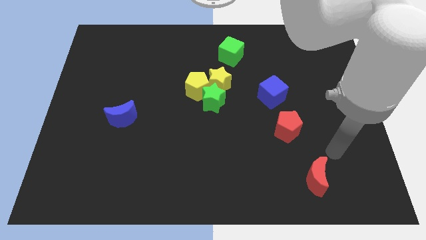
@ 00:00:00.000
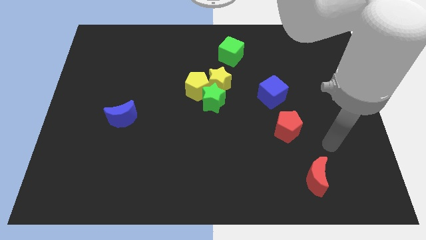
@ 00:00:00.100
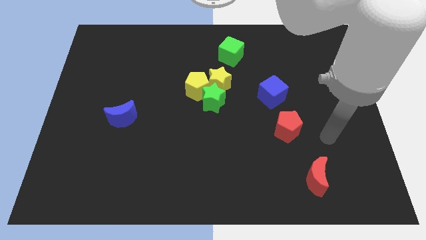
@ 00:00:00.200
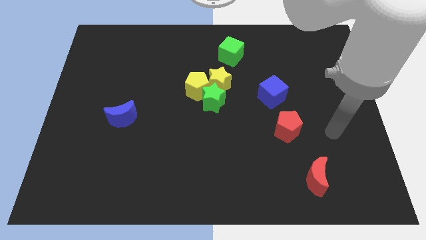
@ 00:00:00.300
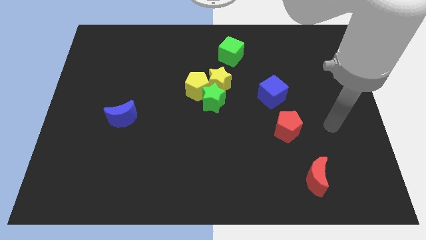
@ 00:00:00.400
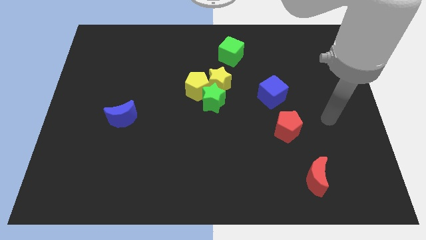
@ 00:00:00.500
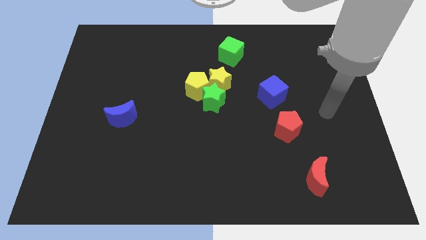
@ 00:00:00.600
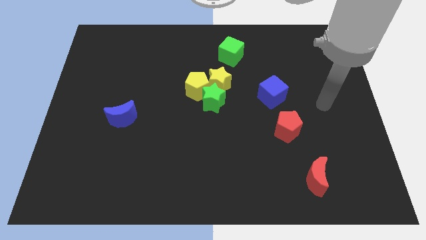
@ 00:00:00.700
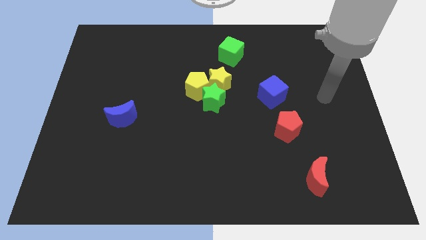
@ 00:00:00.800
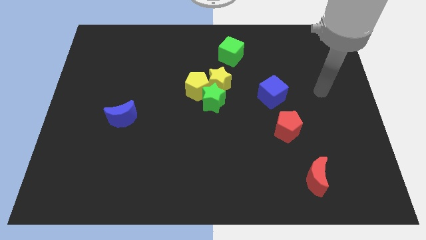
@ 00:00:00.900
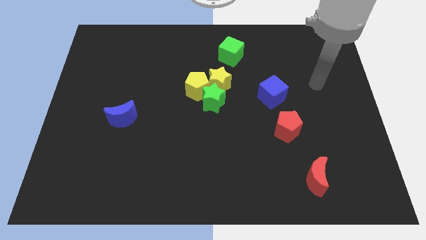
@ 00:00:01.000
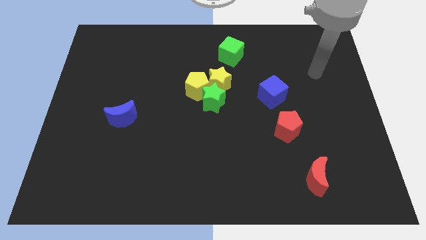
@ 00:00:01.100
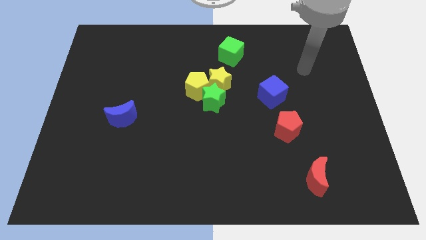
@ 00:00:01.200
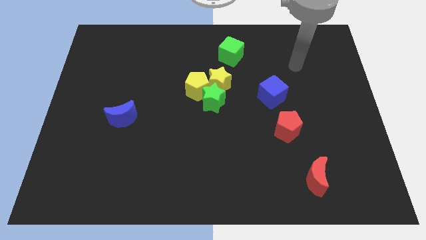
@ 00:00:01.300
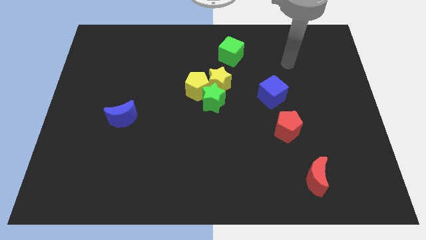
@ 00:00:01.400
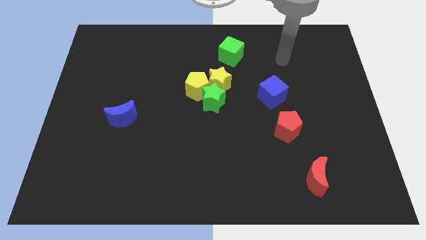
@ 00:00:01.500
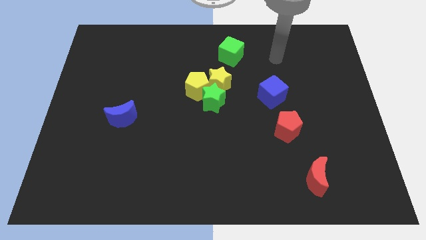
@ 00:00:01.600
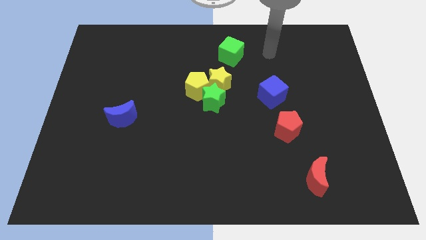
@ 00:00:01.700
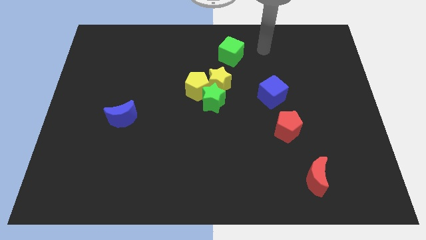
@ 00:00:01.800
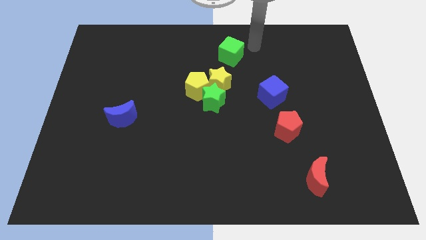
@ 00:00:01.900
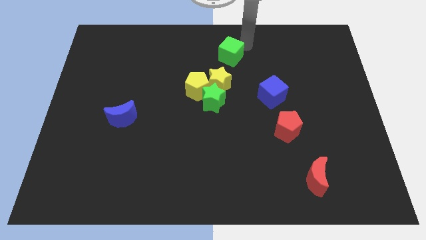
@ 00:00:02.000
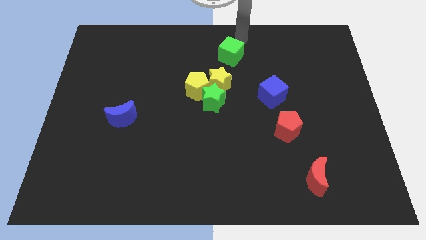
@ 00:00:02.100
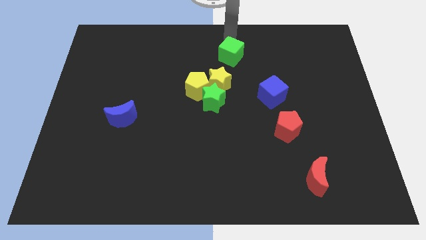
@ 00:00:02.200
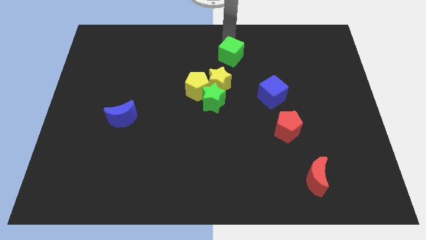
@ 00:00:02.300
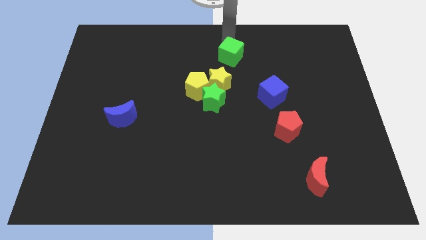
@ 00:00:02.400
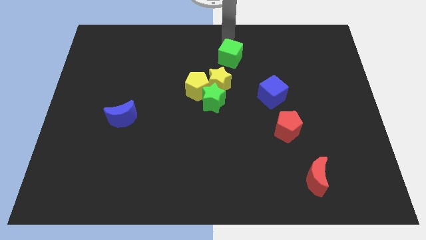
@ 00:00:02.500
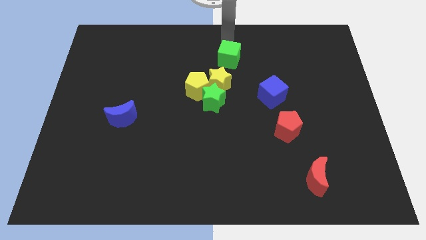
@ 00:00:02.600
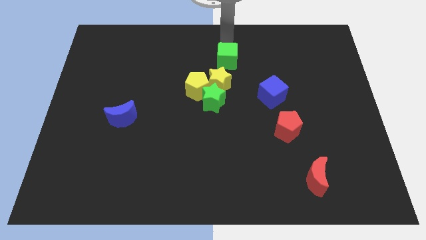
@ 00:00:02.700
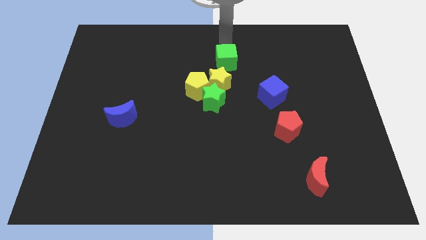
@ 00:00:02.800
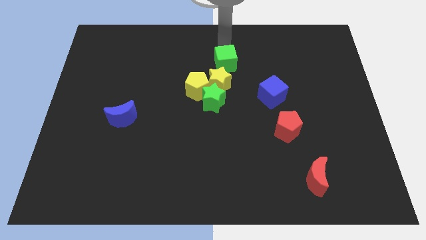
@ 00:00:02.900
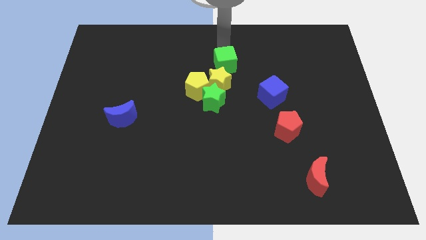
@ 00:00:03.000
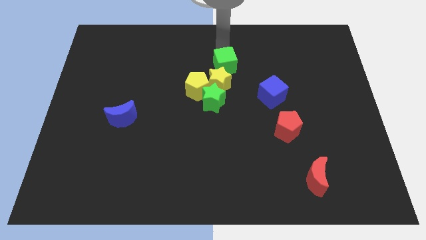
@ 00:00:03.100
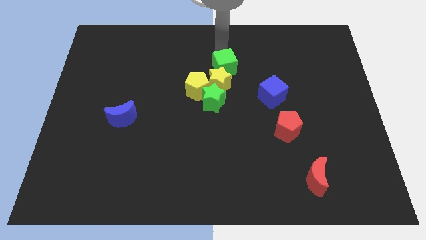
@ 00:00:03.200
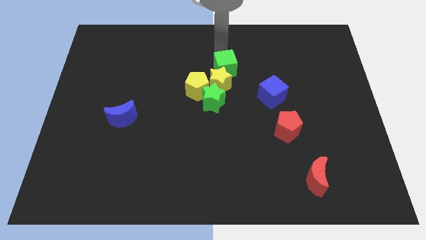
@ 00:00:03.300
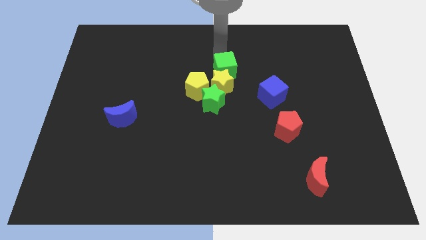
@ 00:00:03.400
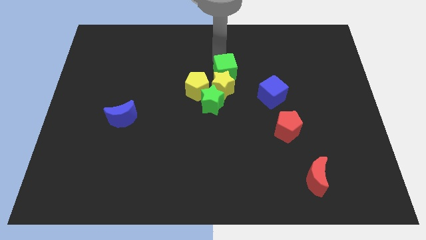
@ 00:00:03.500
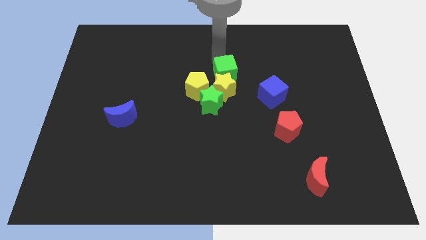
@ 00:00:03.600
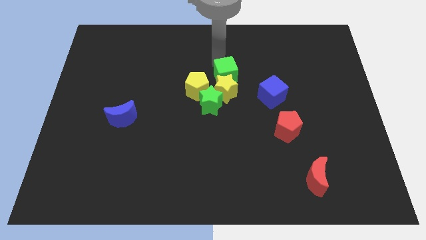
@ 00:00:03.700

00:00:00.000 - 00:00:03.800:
slightly move the green cube downwards

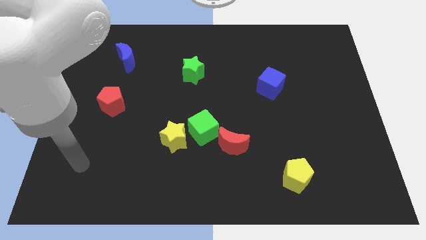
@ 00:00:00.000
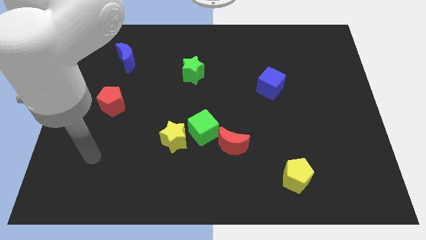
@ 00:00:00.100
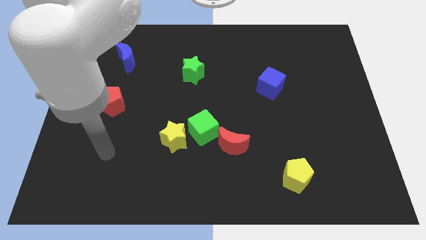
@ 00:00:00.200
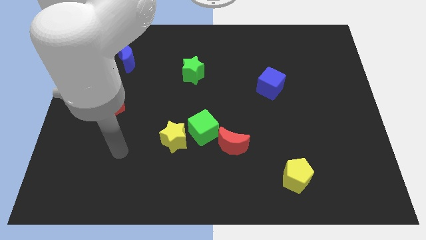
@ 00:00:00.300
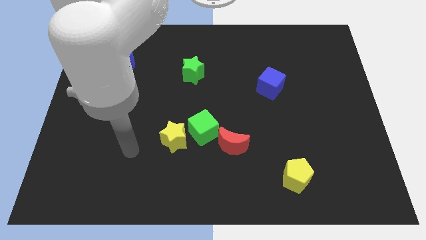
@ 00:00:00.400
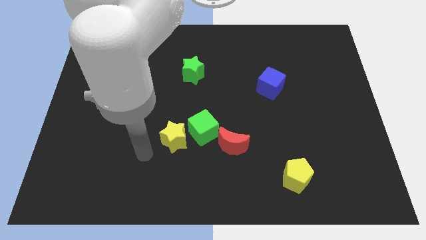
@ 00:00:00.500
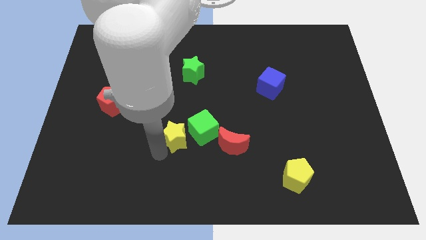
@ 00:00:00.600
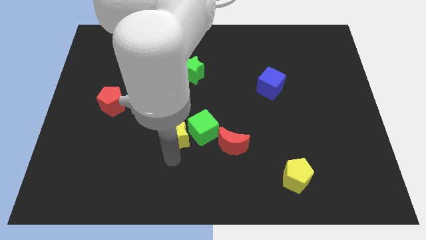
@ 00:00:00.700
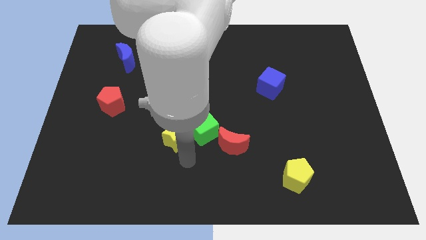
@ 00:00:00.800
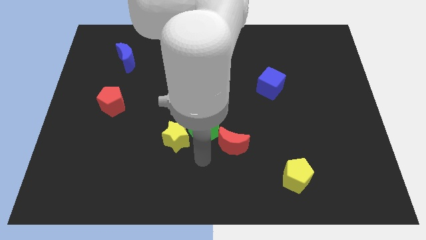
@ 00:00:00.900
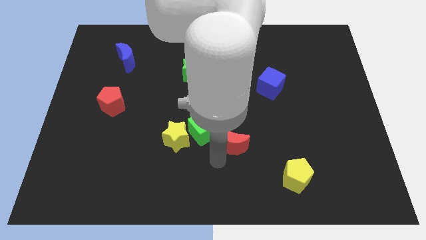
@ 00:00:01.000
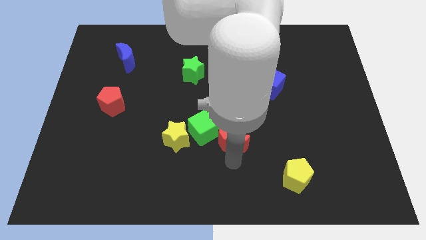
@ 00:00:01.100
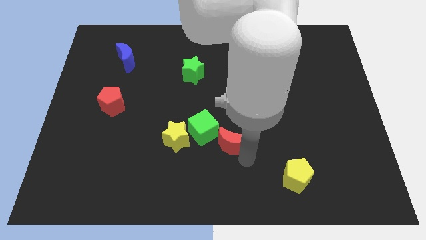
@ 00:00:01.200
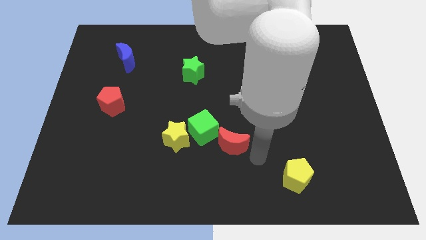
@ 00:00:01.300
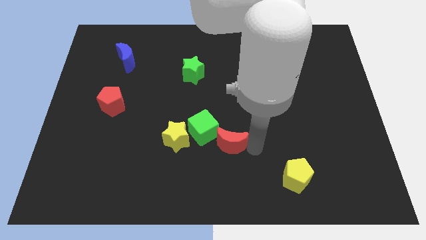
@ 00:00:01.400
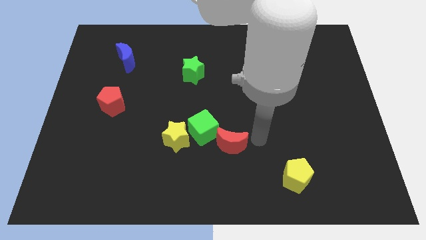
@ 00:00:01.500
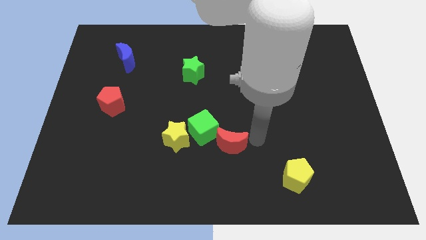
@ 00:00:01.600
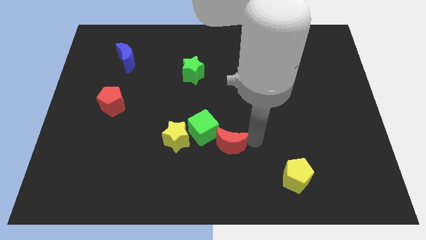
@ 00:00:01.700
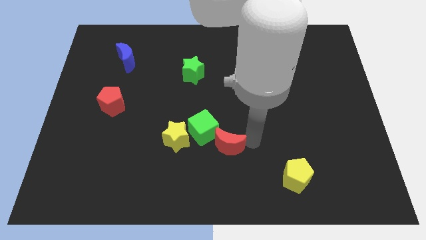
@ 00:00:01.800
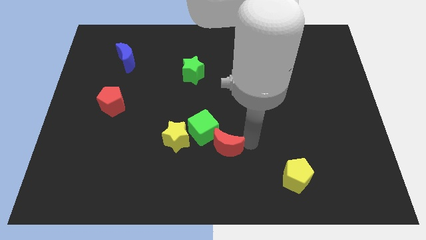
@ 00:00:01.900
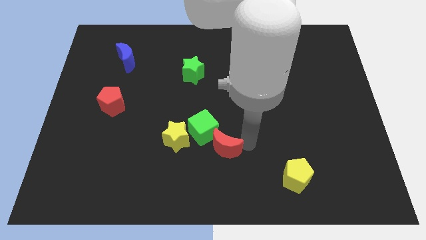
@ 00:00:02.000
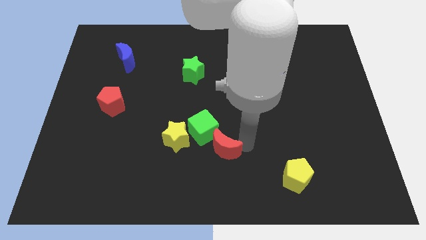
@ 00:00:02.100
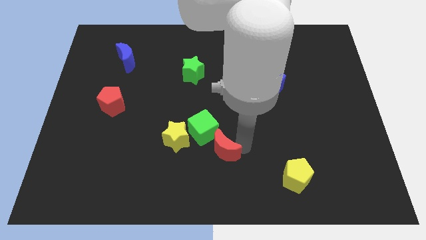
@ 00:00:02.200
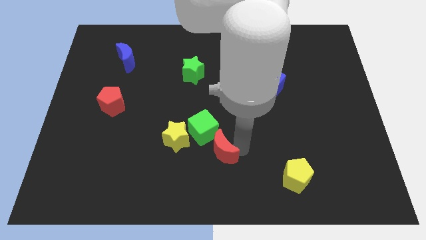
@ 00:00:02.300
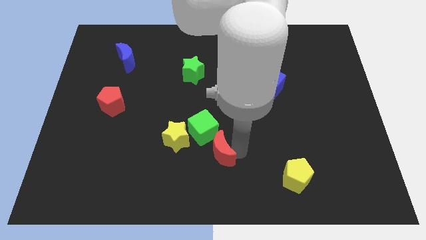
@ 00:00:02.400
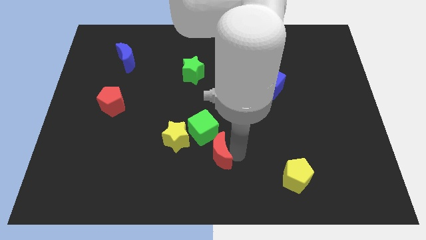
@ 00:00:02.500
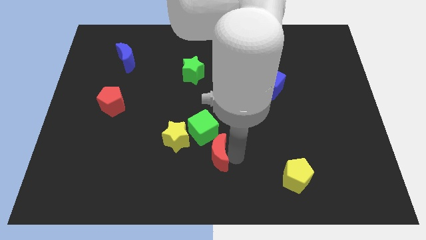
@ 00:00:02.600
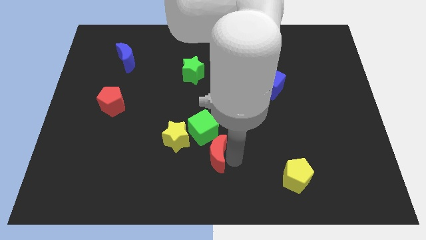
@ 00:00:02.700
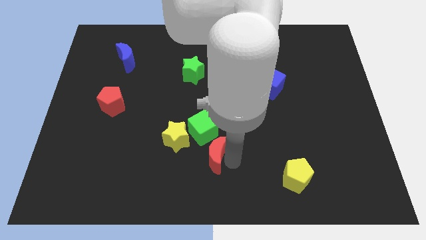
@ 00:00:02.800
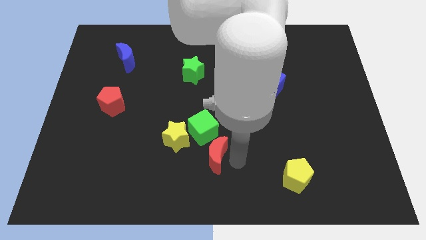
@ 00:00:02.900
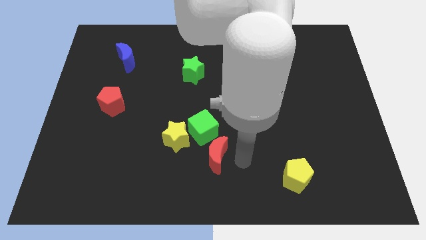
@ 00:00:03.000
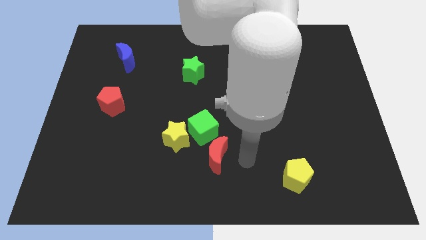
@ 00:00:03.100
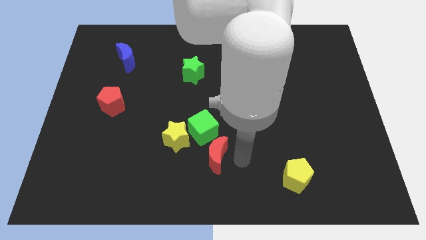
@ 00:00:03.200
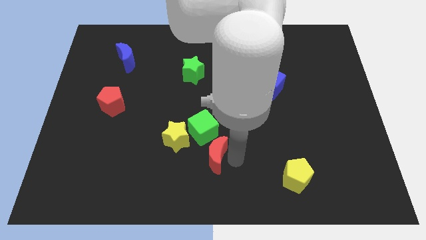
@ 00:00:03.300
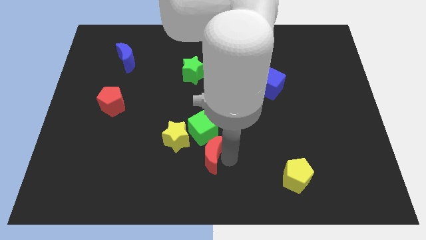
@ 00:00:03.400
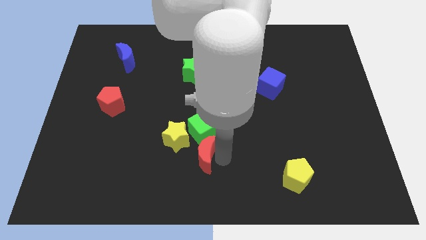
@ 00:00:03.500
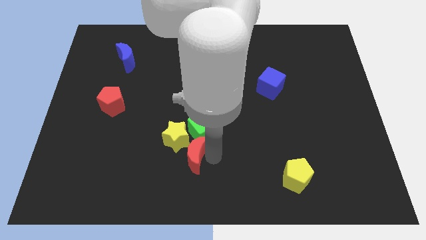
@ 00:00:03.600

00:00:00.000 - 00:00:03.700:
slightly slide the red moon left

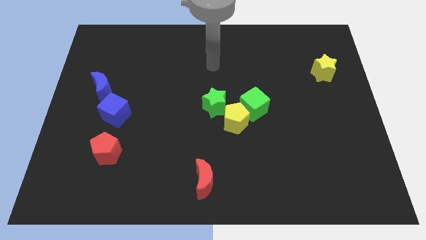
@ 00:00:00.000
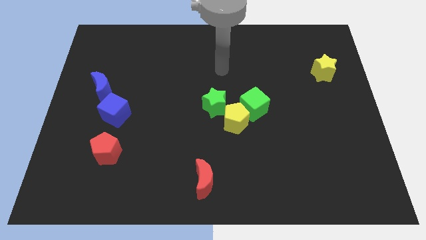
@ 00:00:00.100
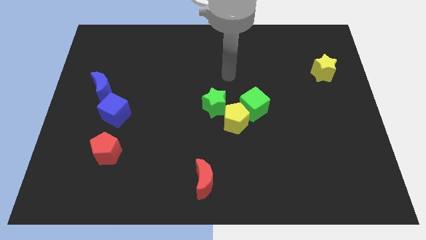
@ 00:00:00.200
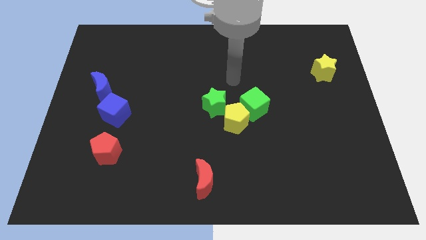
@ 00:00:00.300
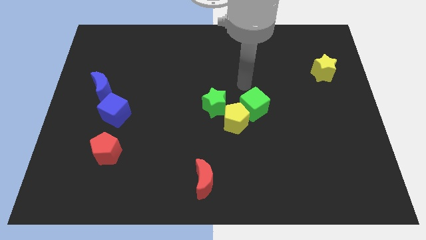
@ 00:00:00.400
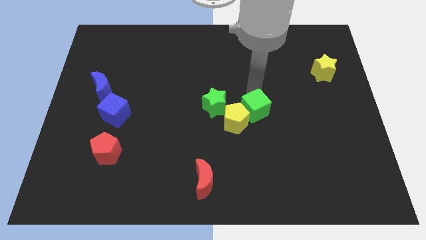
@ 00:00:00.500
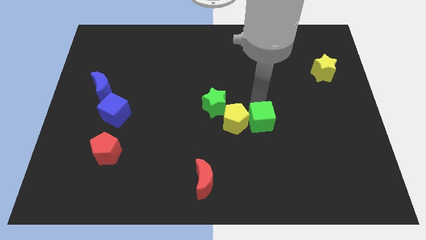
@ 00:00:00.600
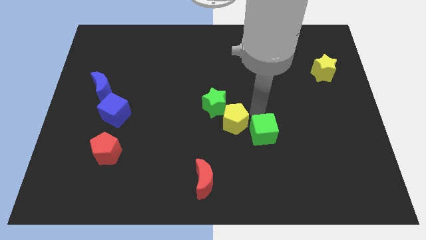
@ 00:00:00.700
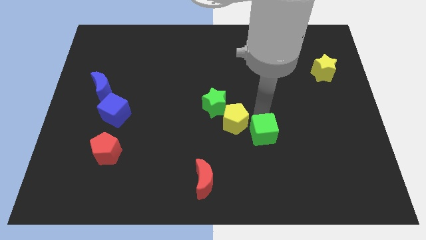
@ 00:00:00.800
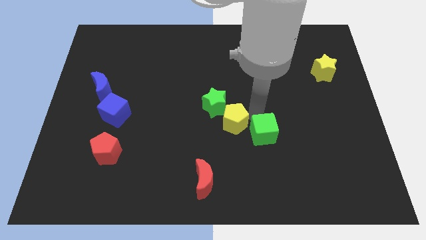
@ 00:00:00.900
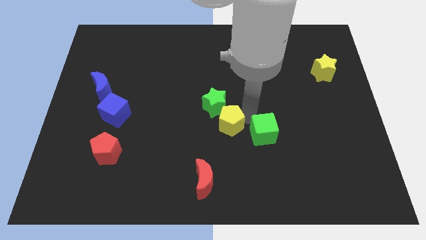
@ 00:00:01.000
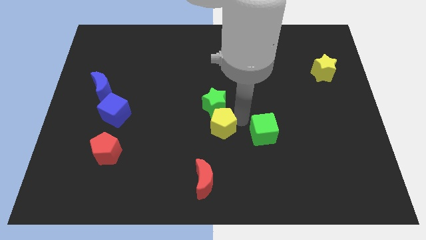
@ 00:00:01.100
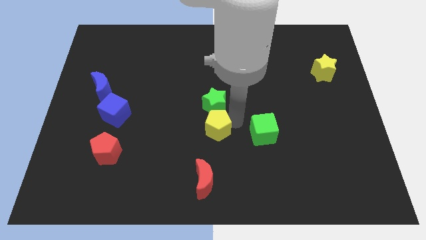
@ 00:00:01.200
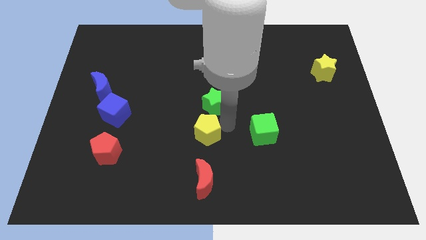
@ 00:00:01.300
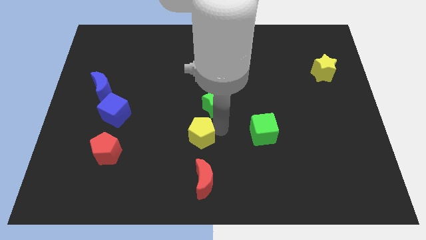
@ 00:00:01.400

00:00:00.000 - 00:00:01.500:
slide the yellow pentagon somewhat to the left
